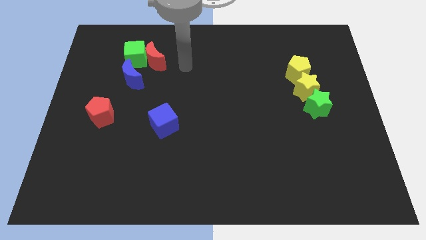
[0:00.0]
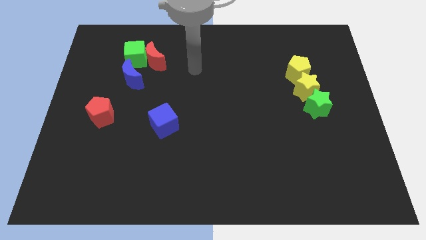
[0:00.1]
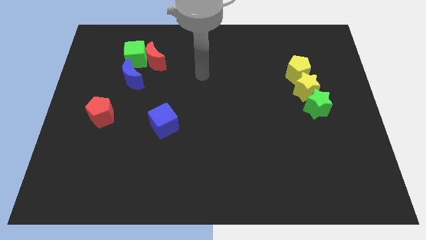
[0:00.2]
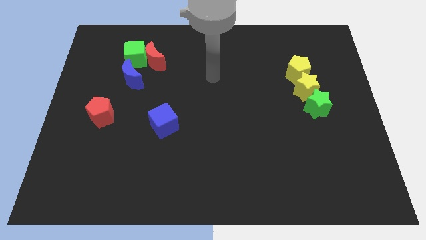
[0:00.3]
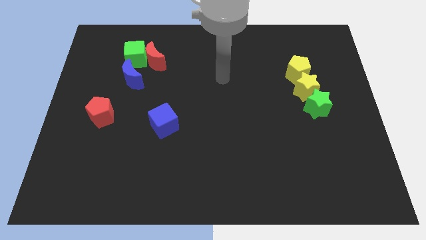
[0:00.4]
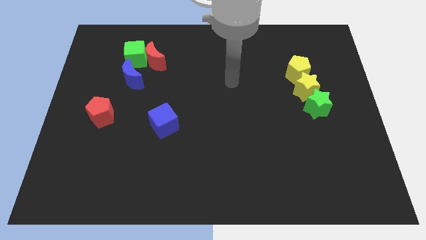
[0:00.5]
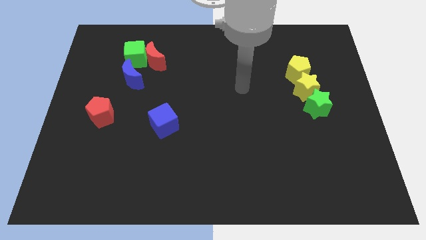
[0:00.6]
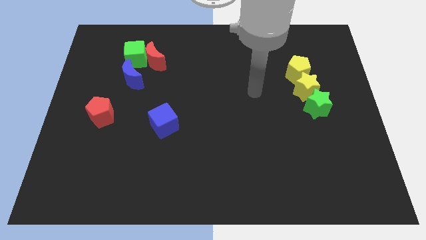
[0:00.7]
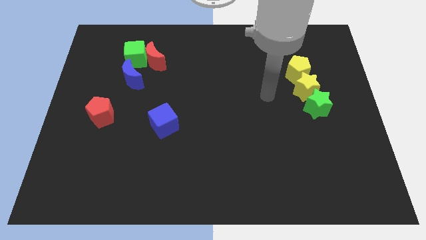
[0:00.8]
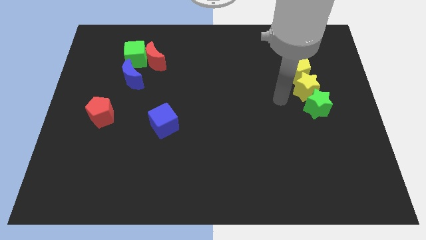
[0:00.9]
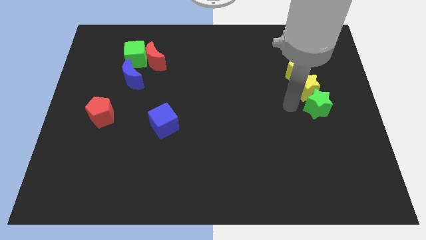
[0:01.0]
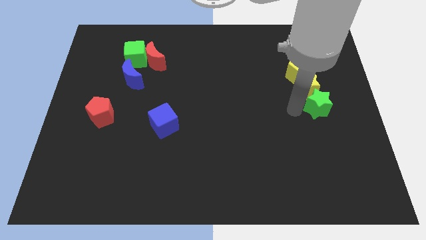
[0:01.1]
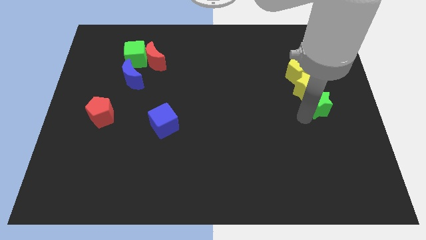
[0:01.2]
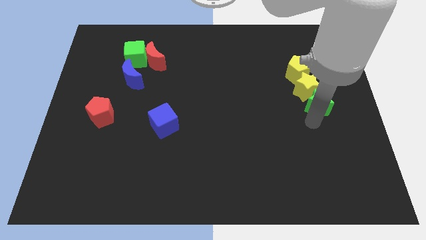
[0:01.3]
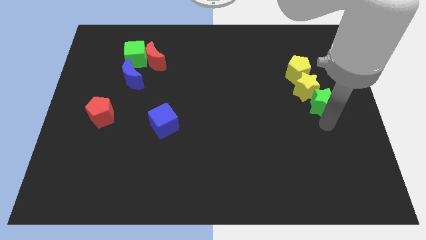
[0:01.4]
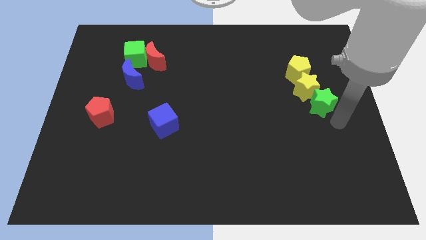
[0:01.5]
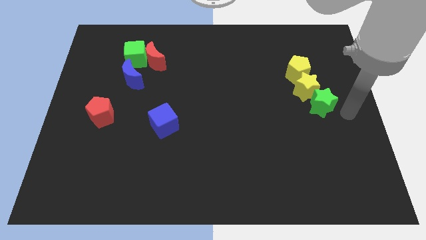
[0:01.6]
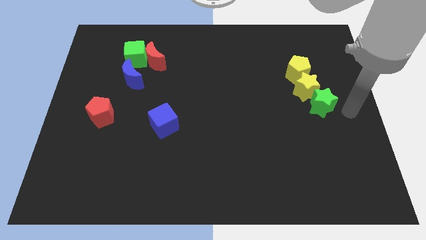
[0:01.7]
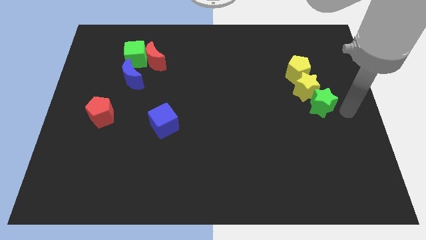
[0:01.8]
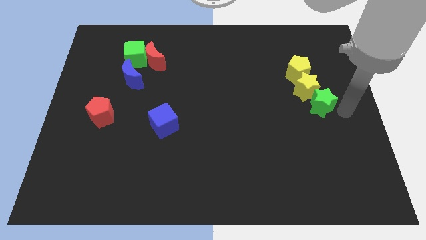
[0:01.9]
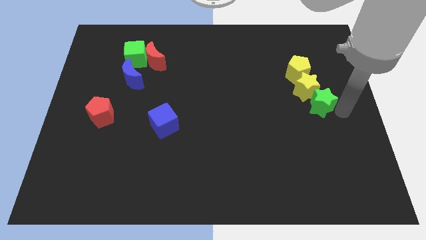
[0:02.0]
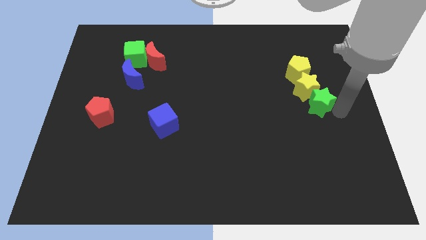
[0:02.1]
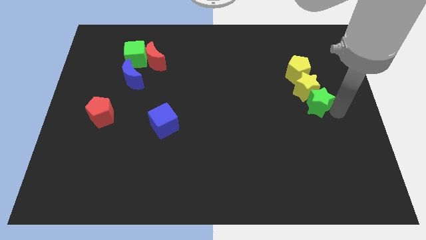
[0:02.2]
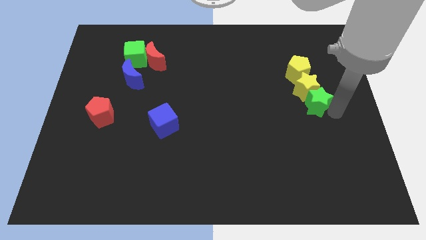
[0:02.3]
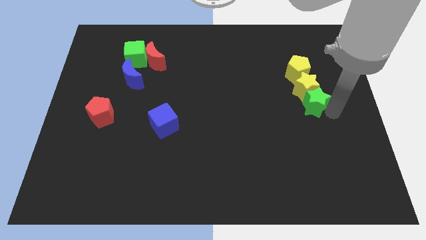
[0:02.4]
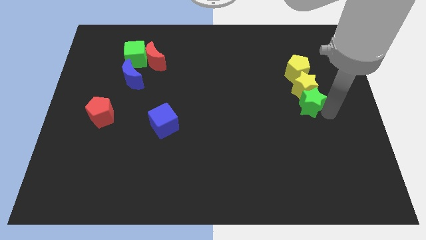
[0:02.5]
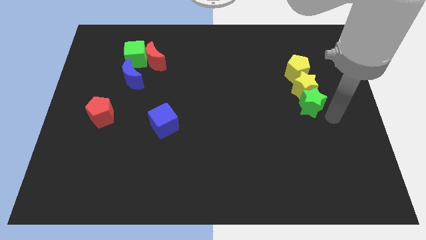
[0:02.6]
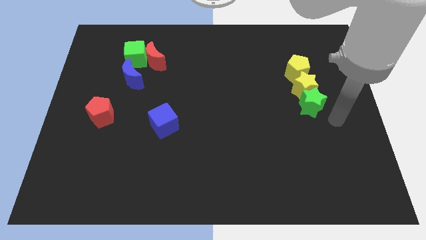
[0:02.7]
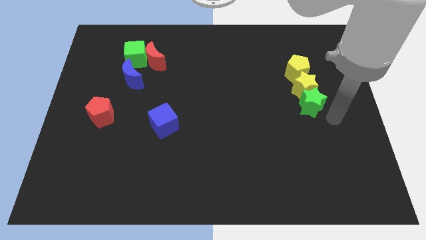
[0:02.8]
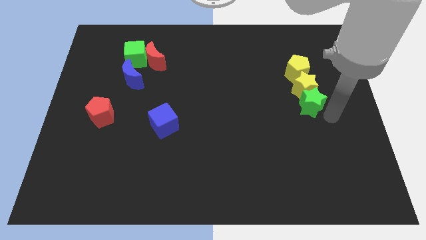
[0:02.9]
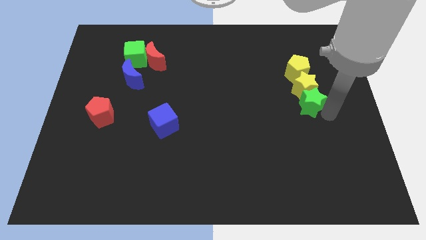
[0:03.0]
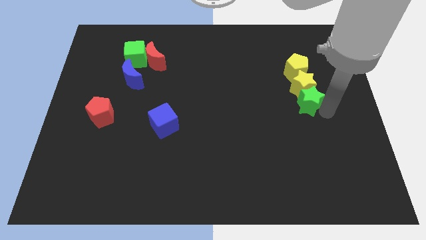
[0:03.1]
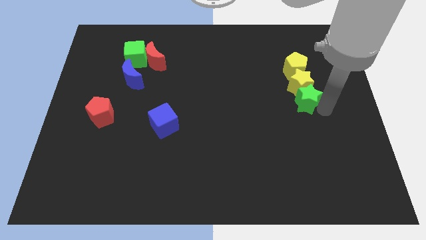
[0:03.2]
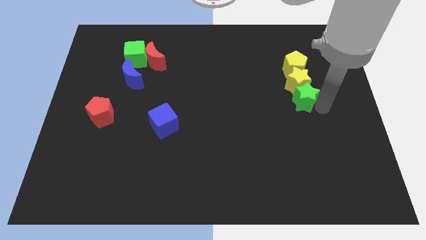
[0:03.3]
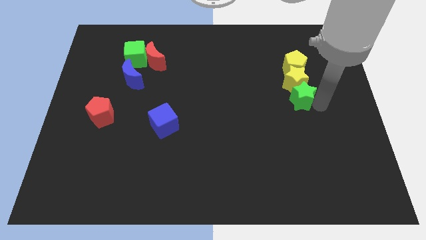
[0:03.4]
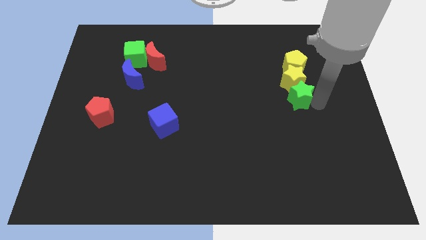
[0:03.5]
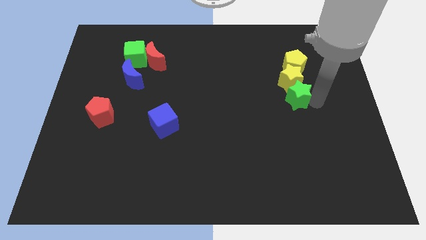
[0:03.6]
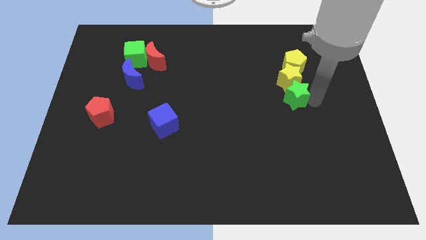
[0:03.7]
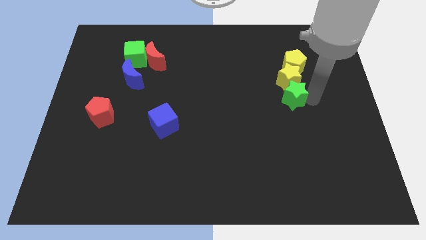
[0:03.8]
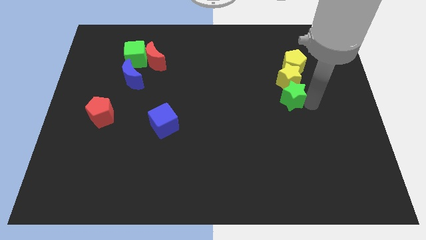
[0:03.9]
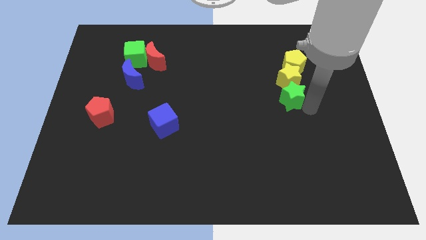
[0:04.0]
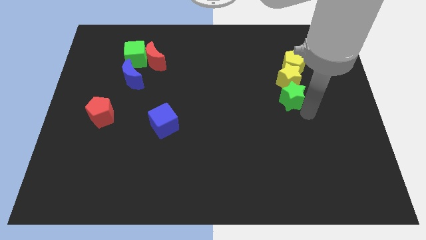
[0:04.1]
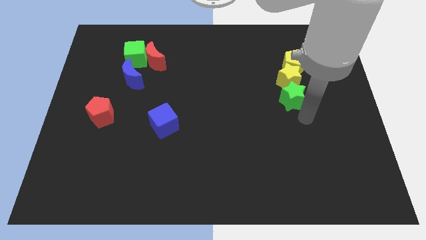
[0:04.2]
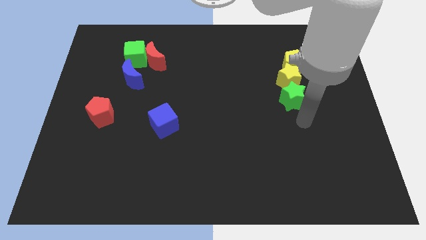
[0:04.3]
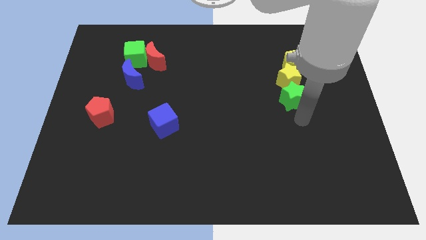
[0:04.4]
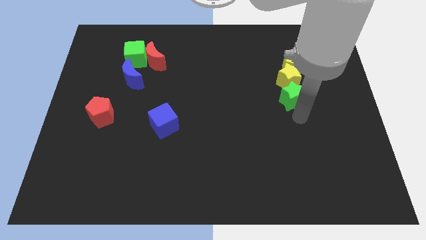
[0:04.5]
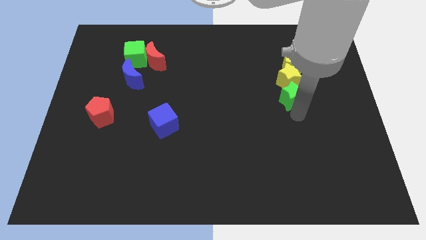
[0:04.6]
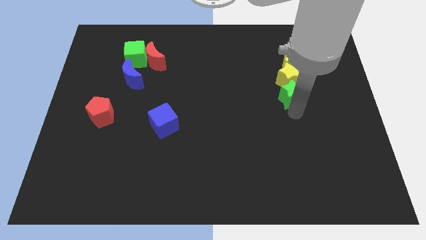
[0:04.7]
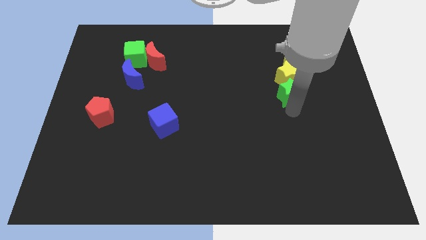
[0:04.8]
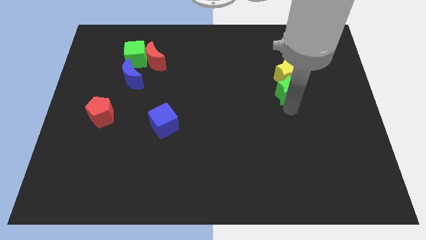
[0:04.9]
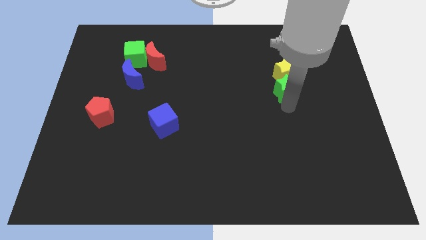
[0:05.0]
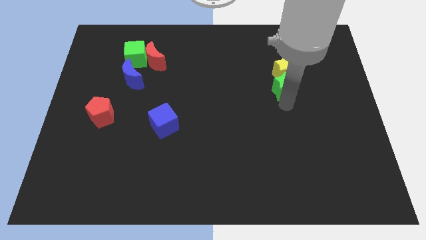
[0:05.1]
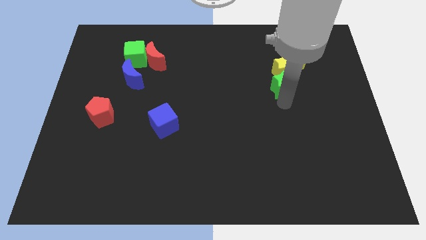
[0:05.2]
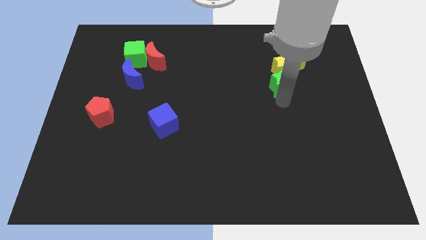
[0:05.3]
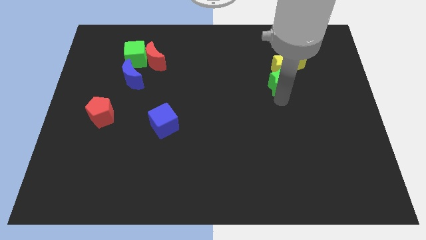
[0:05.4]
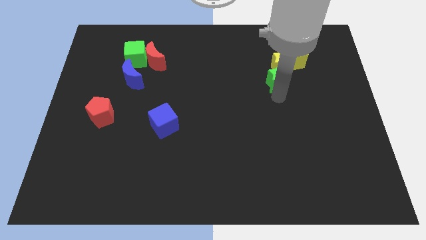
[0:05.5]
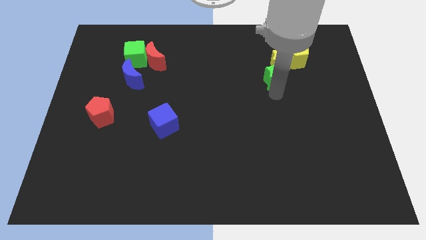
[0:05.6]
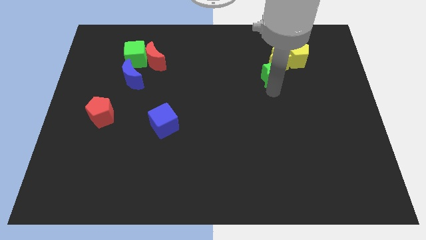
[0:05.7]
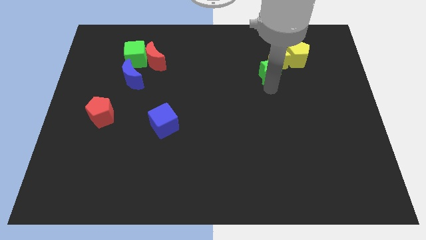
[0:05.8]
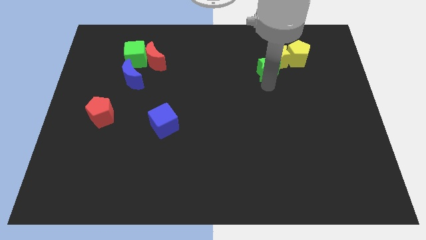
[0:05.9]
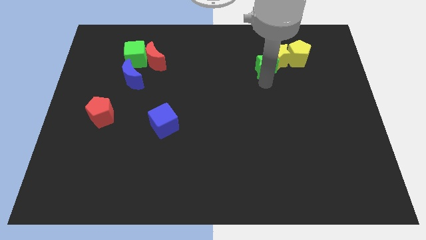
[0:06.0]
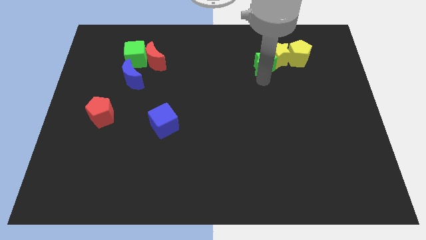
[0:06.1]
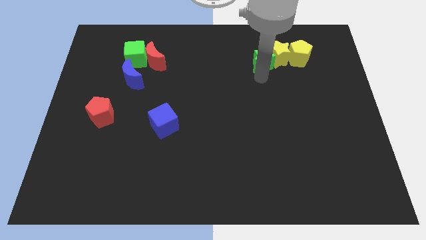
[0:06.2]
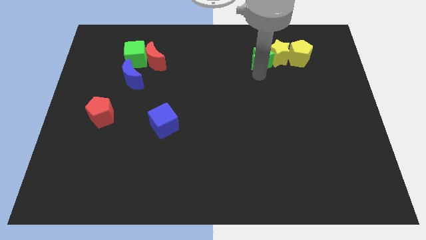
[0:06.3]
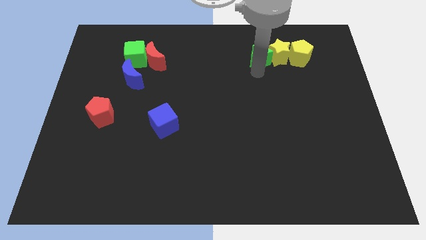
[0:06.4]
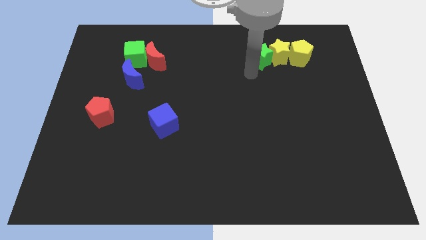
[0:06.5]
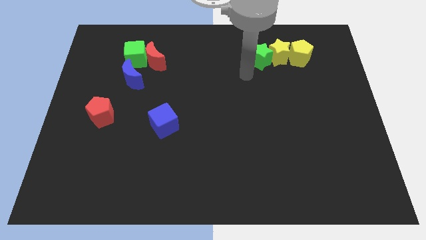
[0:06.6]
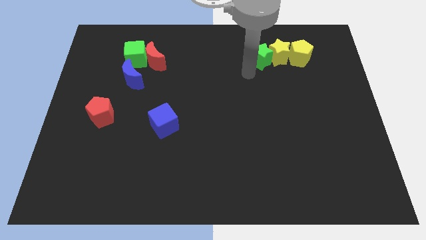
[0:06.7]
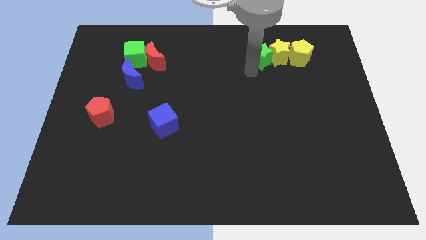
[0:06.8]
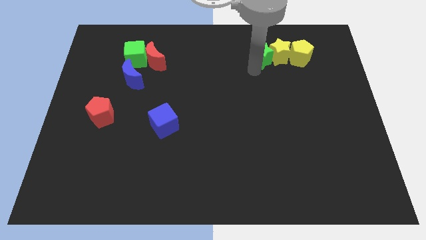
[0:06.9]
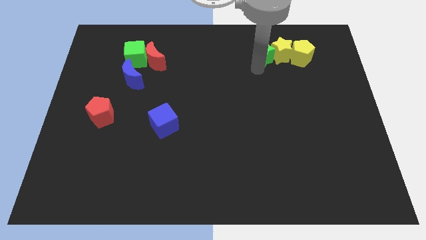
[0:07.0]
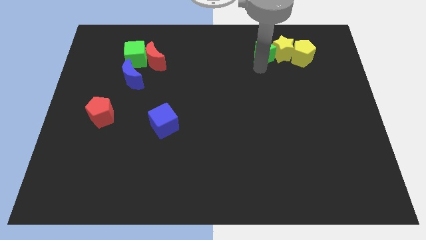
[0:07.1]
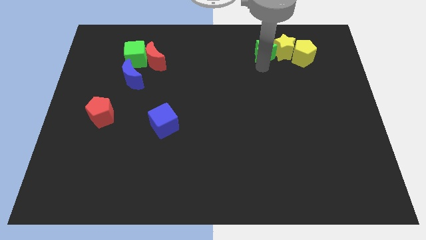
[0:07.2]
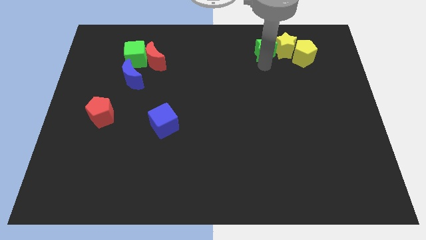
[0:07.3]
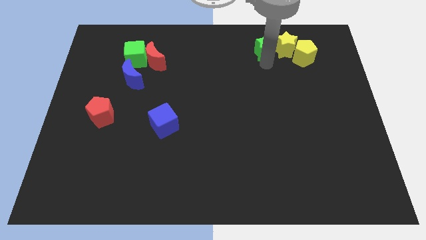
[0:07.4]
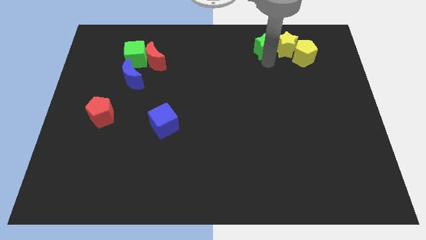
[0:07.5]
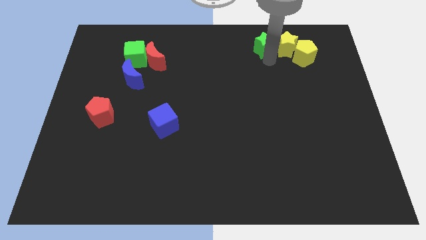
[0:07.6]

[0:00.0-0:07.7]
put the green star diagonally up and to the left of the yellow pentagon
